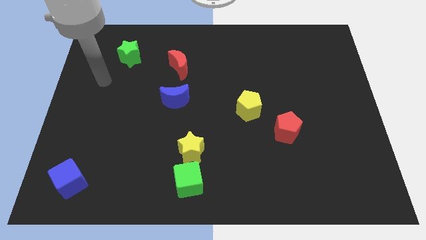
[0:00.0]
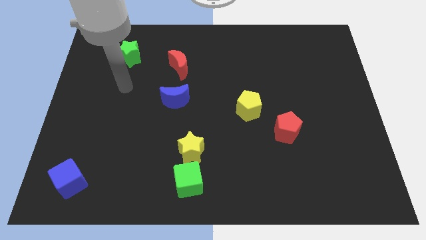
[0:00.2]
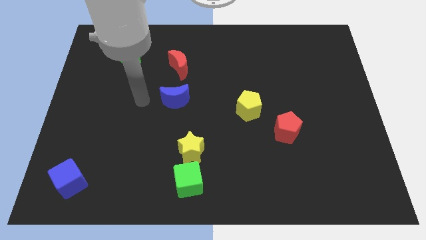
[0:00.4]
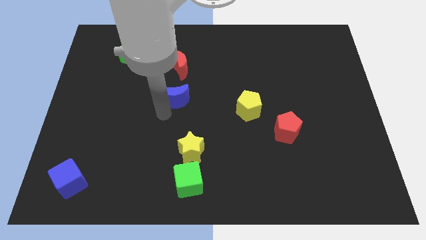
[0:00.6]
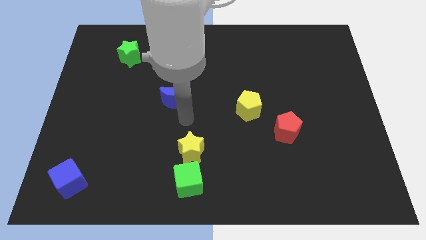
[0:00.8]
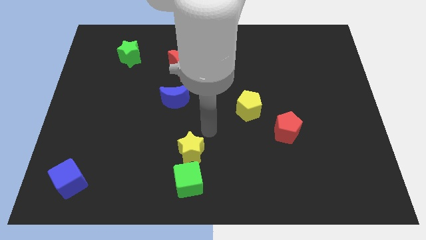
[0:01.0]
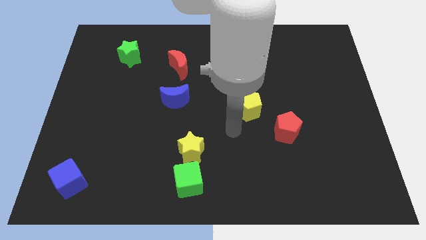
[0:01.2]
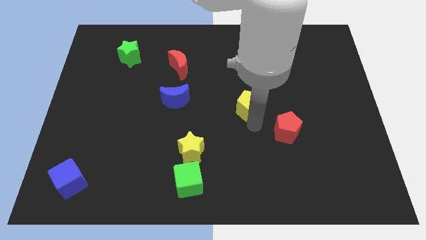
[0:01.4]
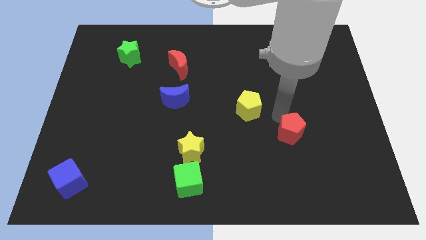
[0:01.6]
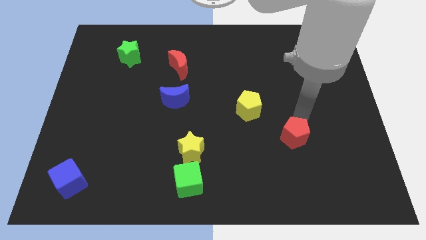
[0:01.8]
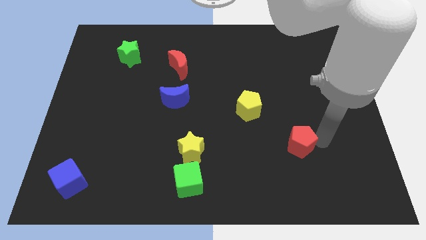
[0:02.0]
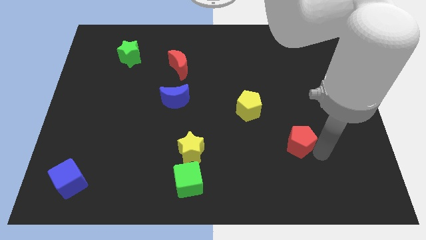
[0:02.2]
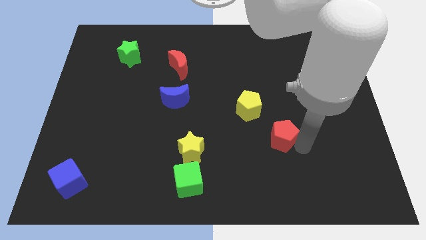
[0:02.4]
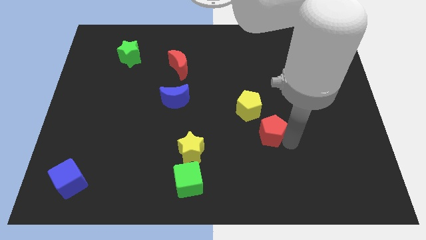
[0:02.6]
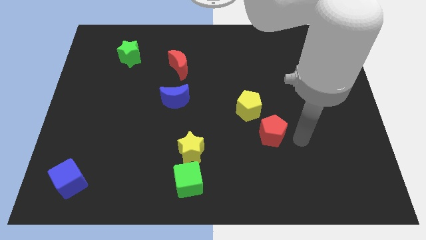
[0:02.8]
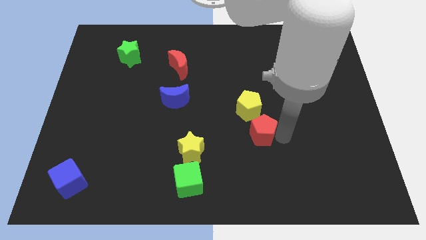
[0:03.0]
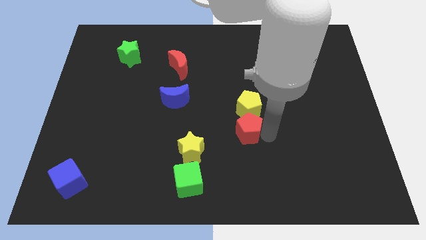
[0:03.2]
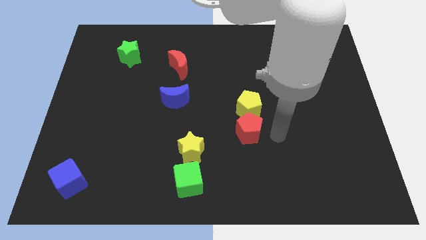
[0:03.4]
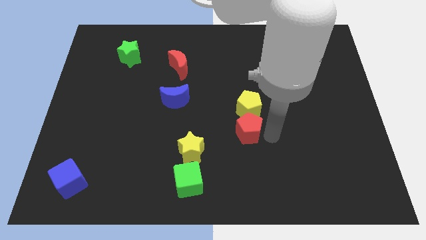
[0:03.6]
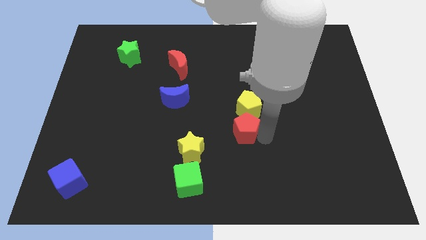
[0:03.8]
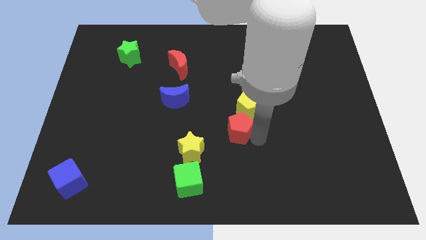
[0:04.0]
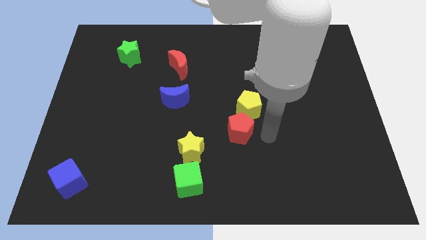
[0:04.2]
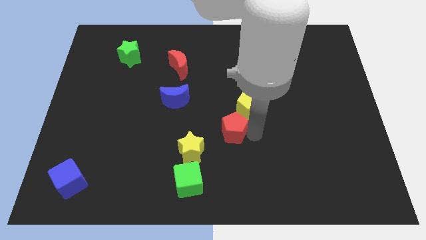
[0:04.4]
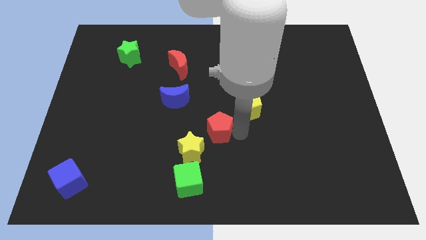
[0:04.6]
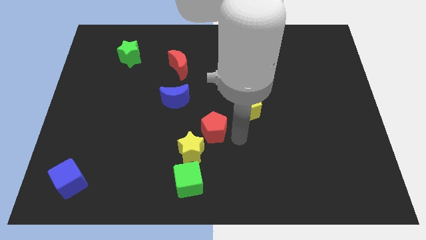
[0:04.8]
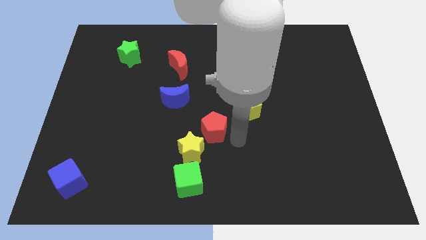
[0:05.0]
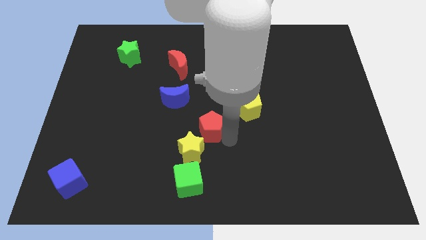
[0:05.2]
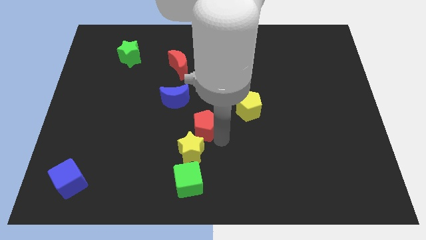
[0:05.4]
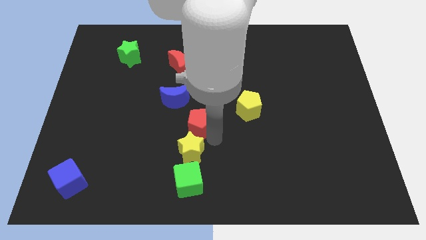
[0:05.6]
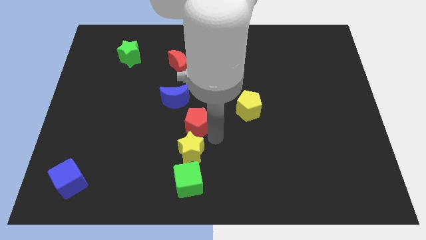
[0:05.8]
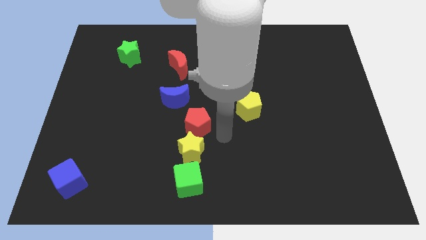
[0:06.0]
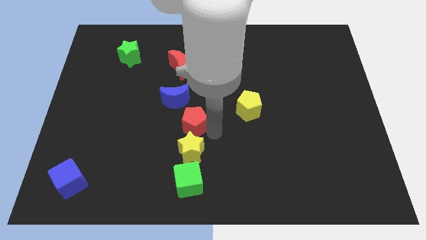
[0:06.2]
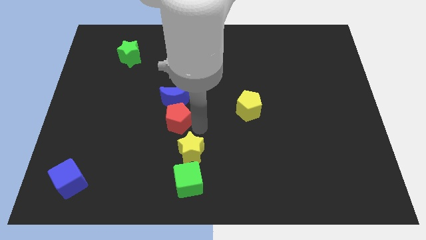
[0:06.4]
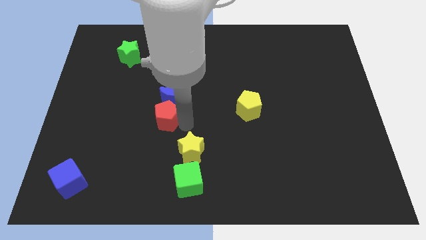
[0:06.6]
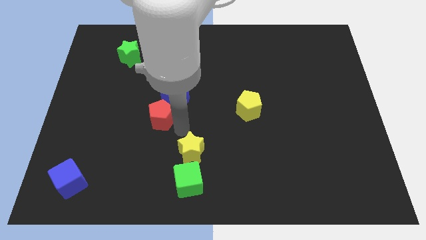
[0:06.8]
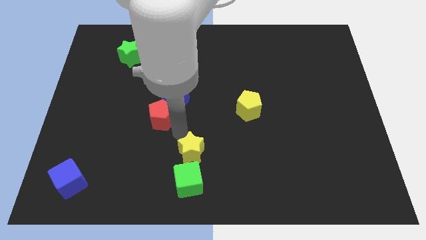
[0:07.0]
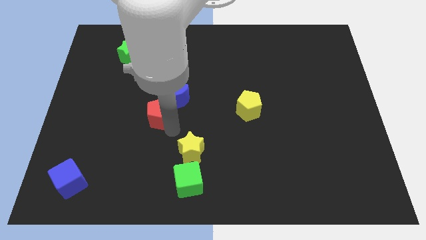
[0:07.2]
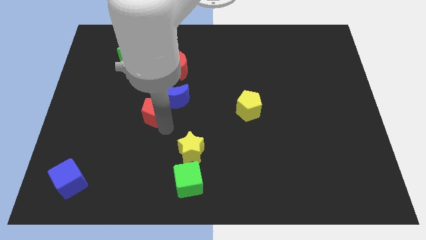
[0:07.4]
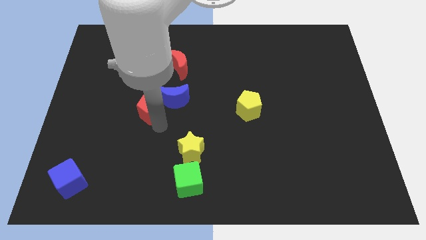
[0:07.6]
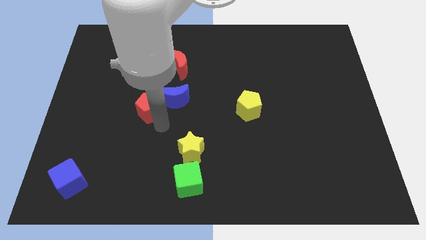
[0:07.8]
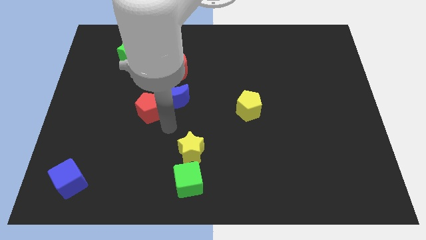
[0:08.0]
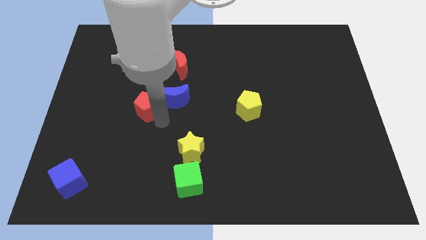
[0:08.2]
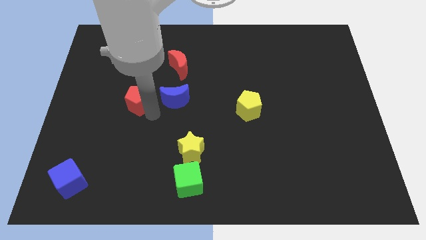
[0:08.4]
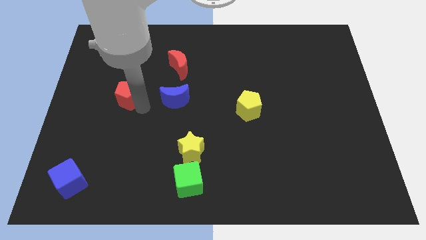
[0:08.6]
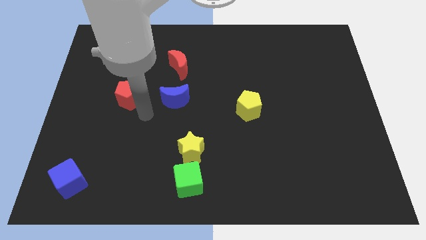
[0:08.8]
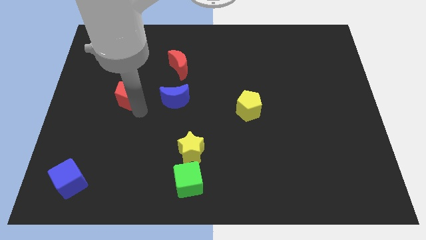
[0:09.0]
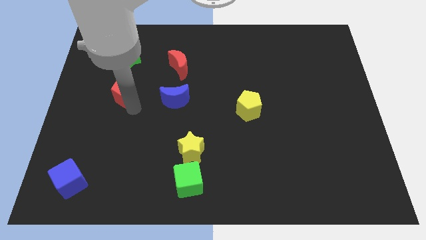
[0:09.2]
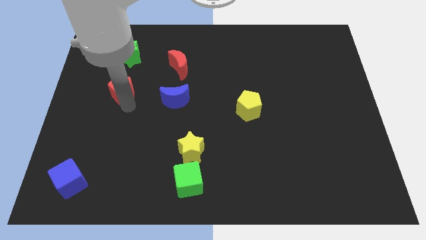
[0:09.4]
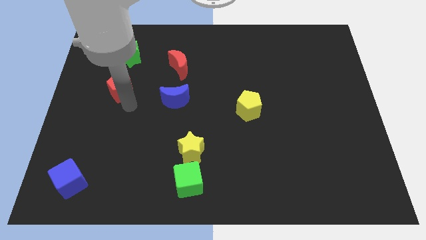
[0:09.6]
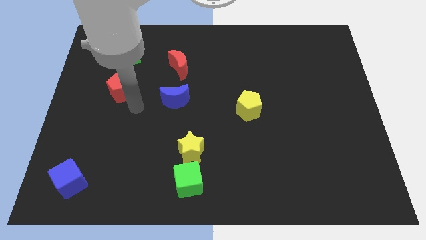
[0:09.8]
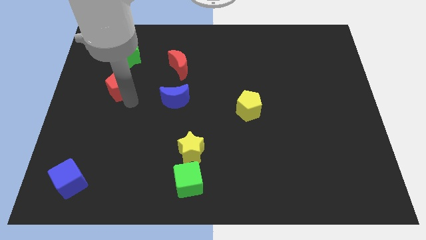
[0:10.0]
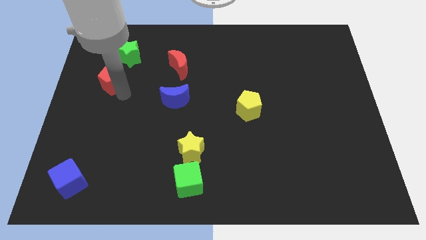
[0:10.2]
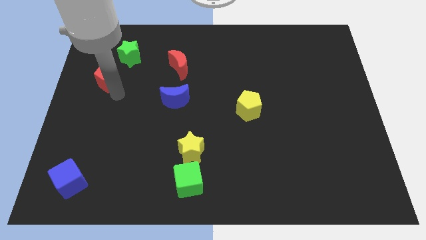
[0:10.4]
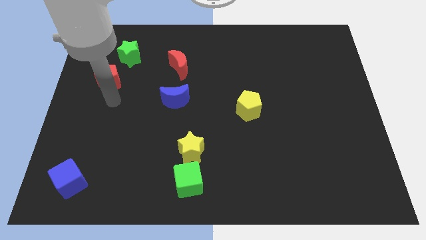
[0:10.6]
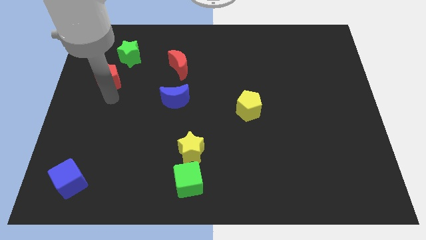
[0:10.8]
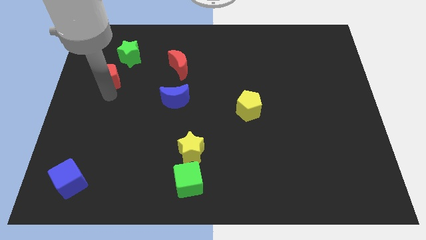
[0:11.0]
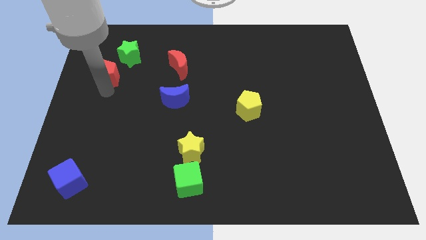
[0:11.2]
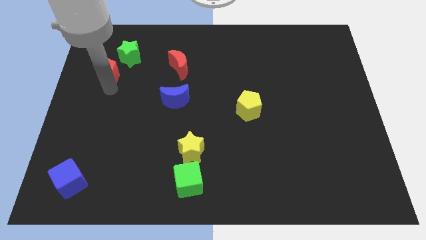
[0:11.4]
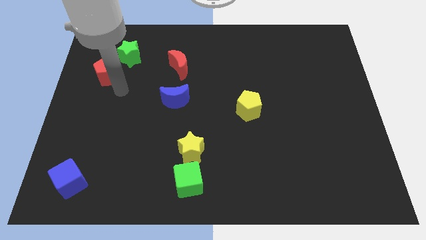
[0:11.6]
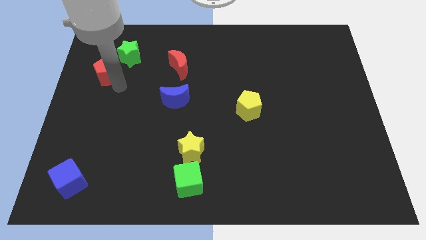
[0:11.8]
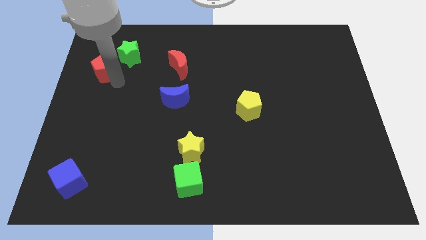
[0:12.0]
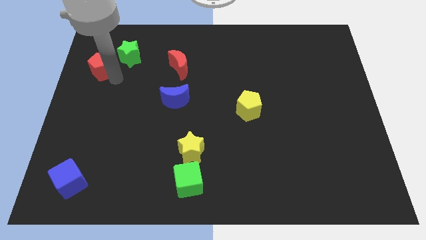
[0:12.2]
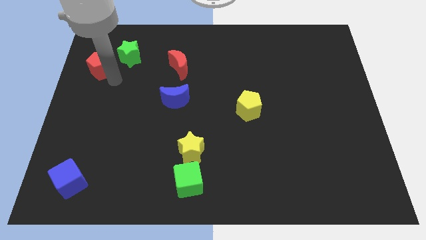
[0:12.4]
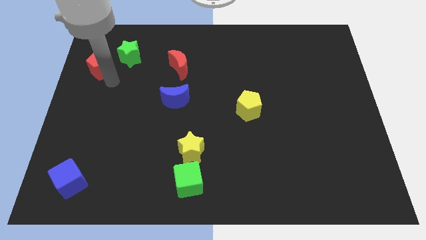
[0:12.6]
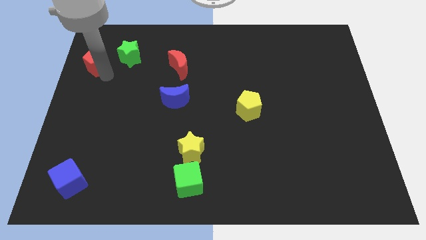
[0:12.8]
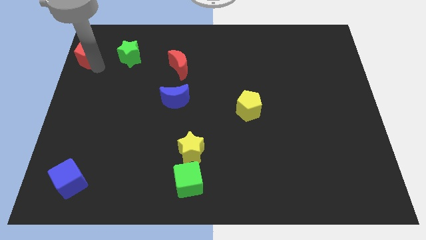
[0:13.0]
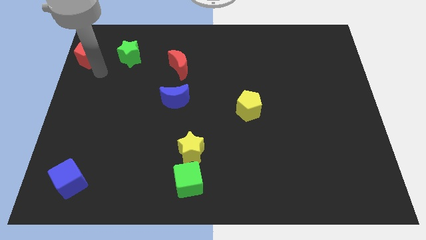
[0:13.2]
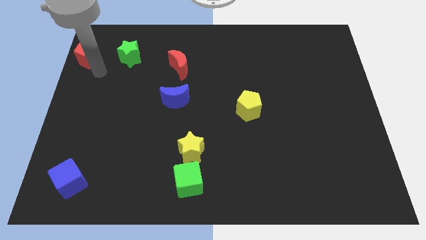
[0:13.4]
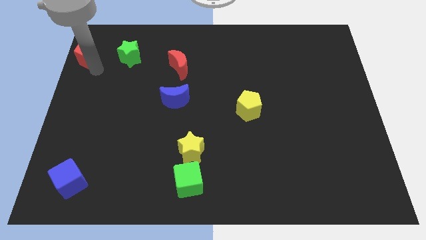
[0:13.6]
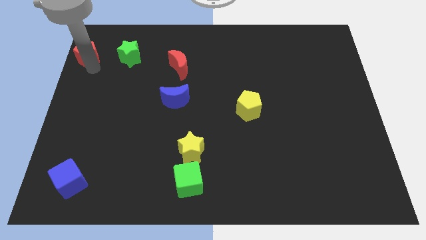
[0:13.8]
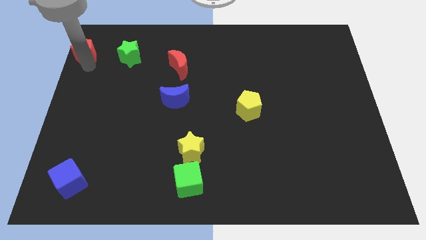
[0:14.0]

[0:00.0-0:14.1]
slide the red pentagon to the top left of the board
